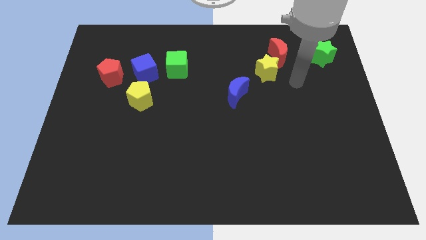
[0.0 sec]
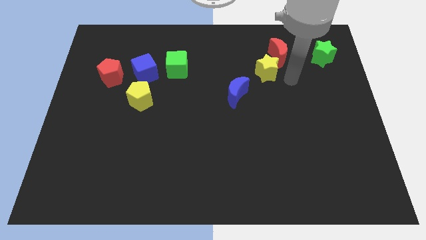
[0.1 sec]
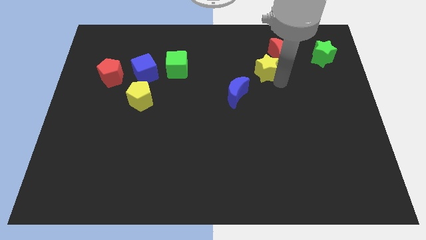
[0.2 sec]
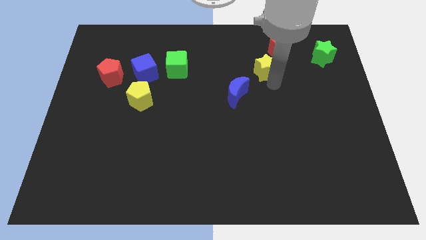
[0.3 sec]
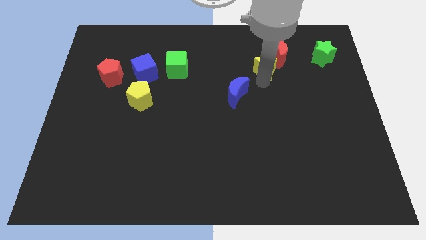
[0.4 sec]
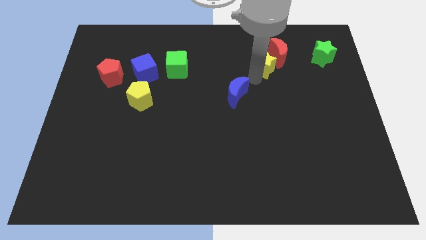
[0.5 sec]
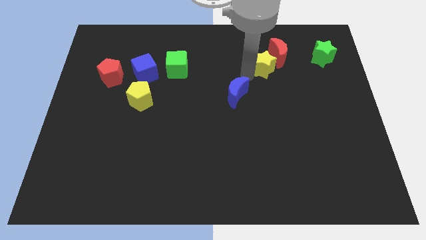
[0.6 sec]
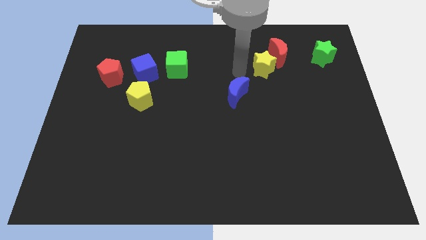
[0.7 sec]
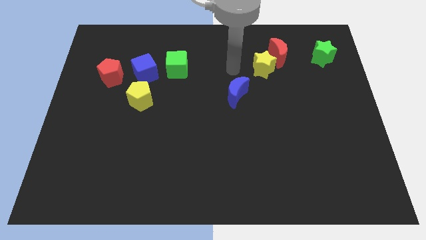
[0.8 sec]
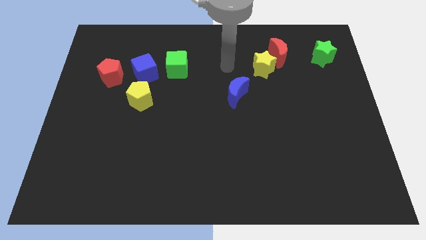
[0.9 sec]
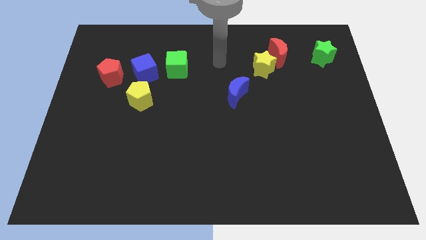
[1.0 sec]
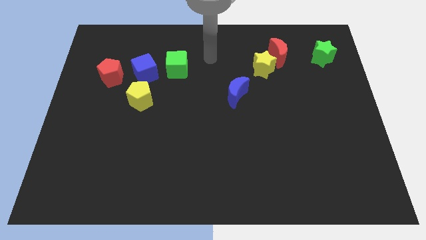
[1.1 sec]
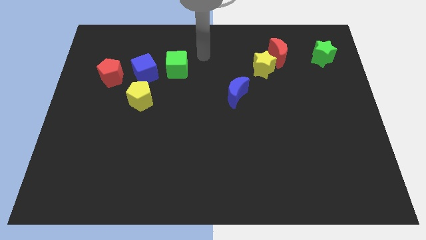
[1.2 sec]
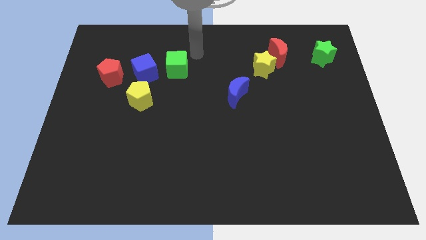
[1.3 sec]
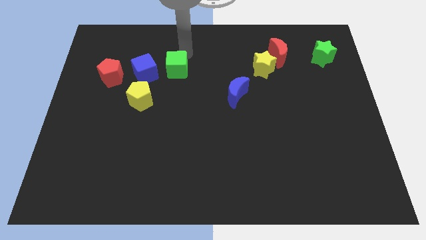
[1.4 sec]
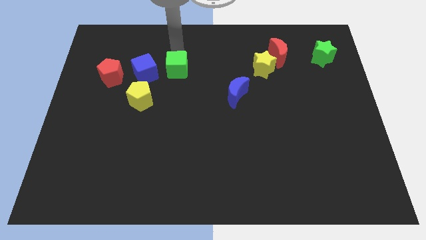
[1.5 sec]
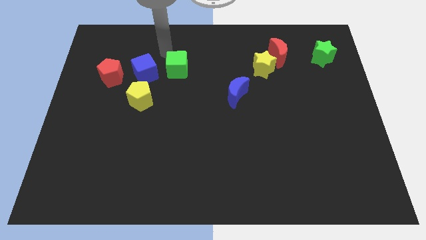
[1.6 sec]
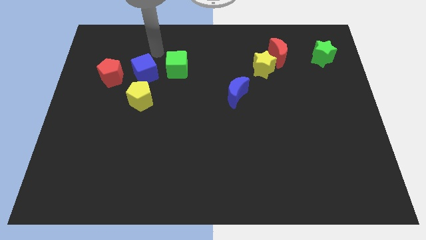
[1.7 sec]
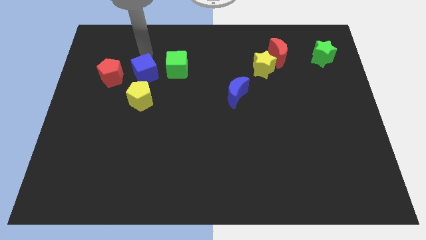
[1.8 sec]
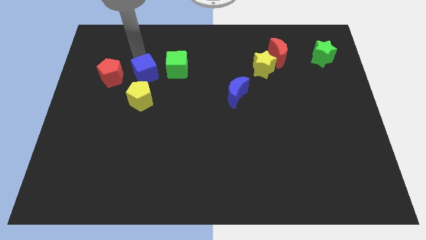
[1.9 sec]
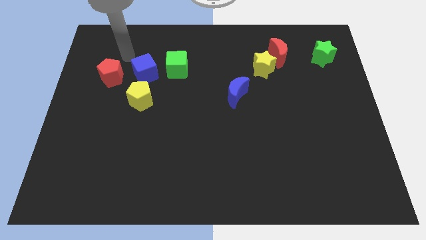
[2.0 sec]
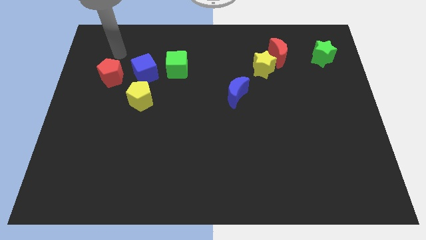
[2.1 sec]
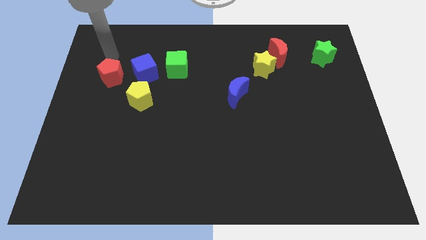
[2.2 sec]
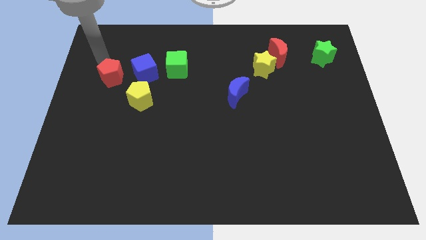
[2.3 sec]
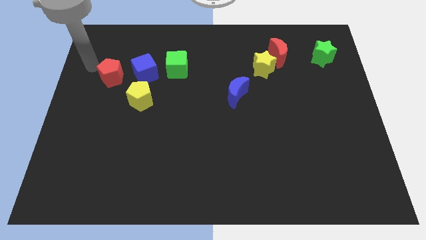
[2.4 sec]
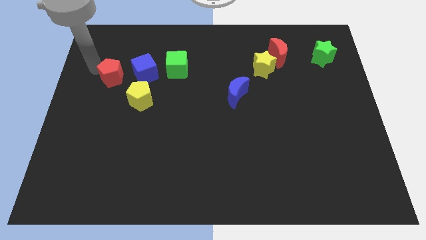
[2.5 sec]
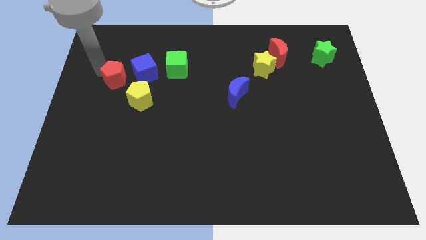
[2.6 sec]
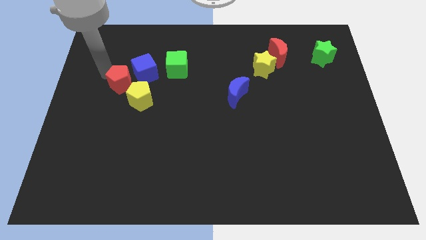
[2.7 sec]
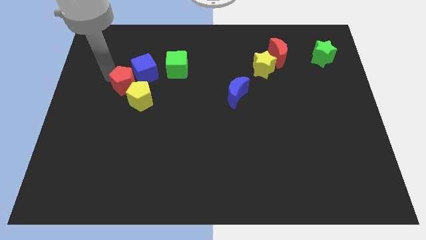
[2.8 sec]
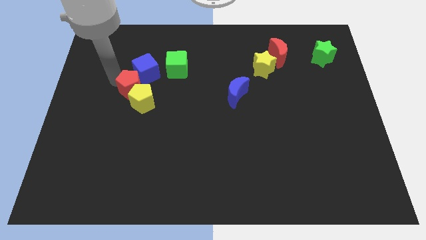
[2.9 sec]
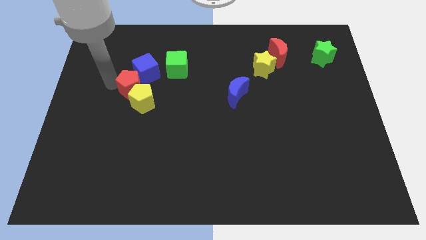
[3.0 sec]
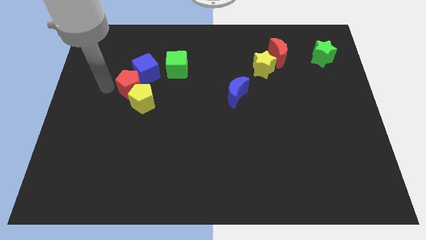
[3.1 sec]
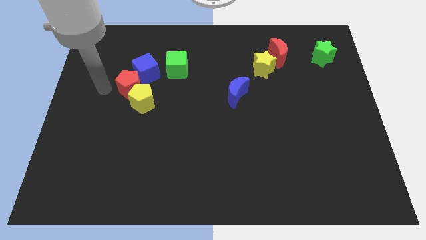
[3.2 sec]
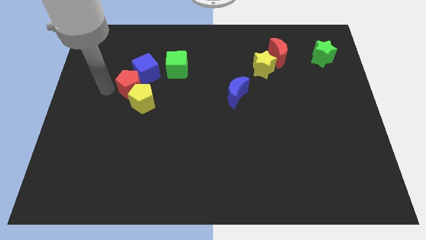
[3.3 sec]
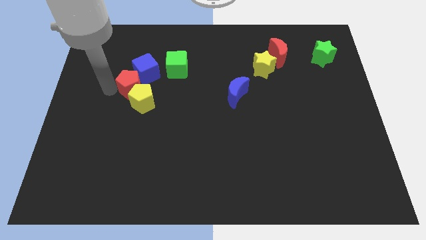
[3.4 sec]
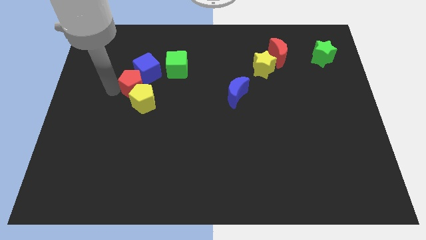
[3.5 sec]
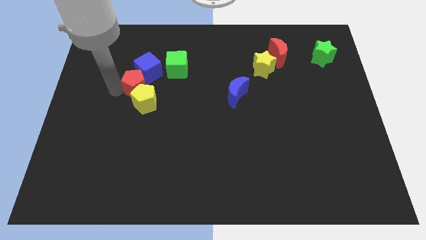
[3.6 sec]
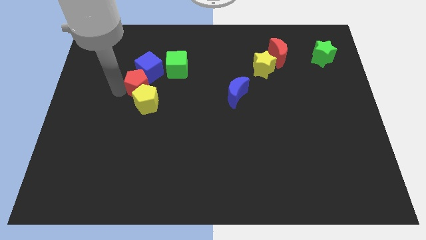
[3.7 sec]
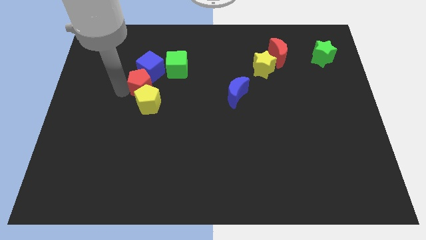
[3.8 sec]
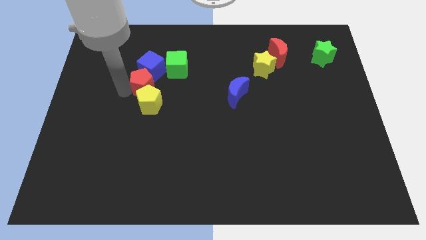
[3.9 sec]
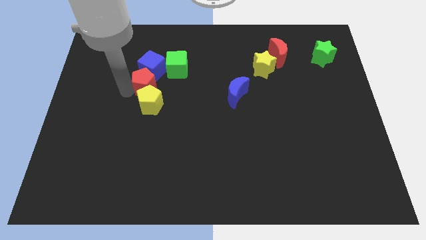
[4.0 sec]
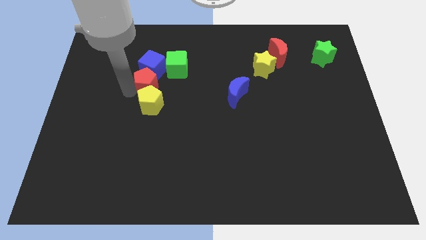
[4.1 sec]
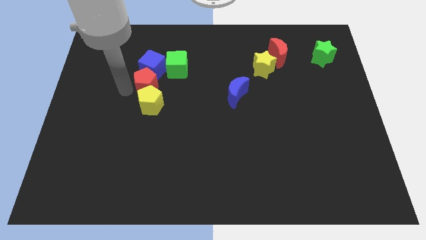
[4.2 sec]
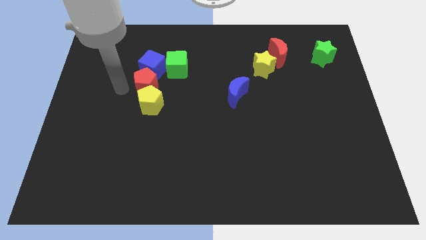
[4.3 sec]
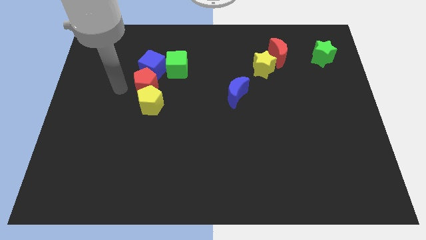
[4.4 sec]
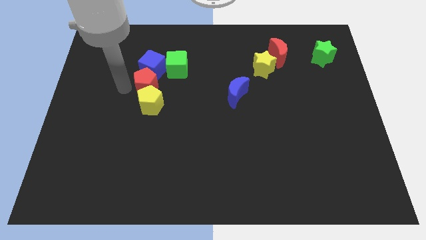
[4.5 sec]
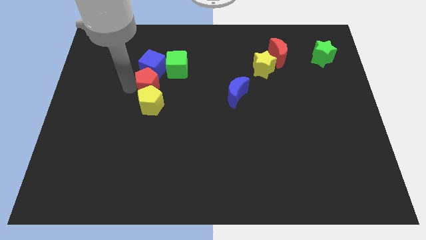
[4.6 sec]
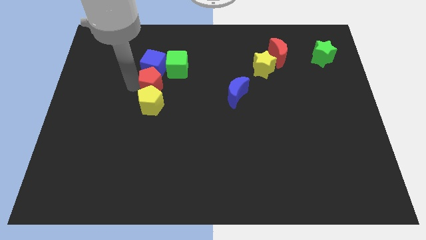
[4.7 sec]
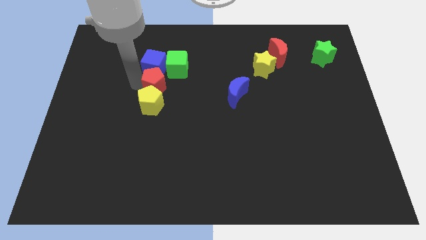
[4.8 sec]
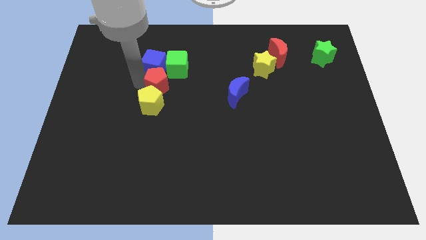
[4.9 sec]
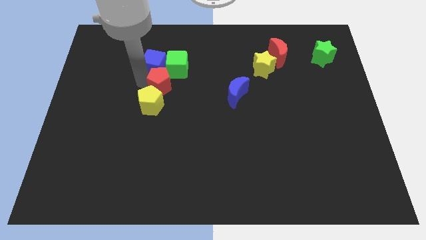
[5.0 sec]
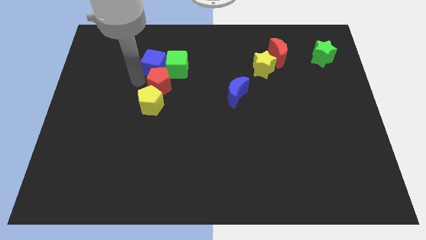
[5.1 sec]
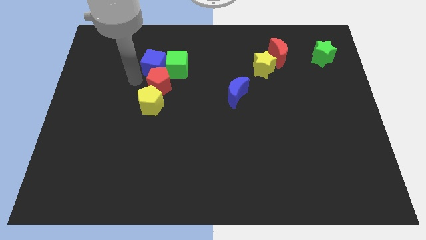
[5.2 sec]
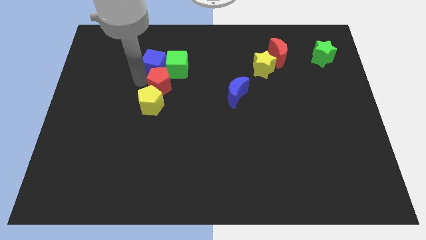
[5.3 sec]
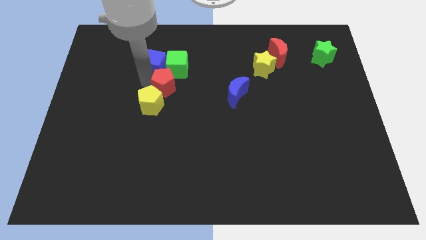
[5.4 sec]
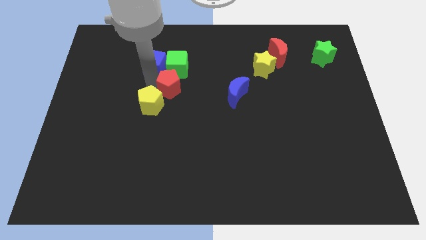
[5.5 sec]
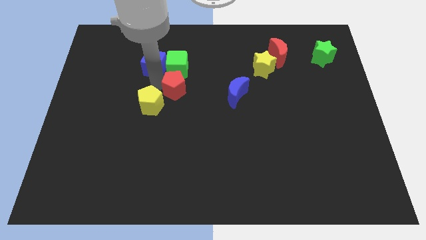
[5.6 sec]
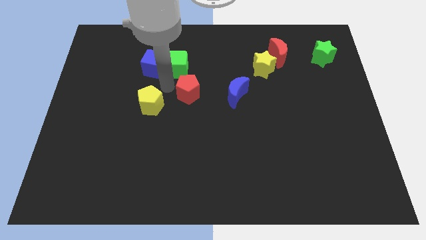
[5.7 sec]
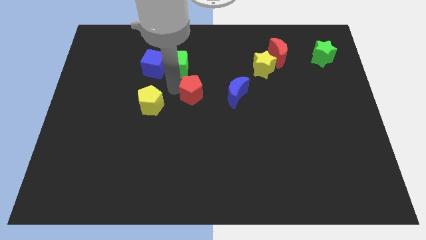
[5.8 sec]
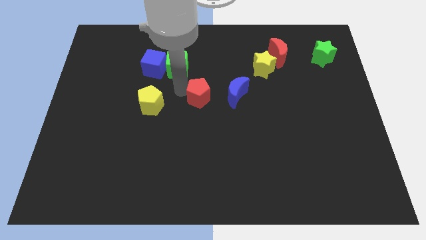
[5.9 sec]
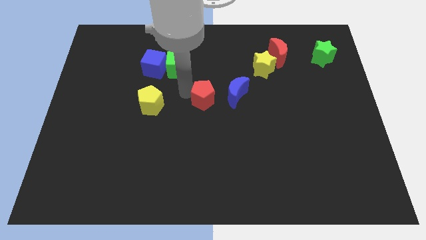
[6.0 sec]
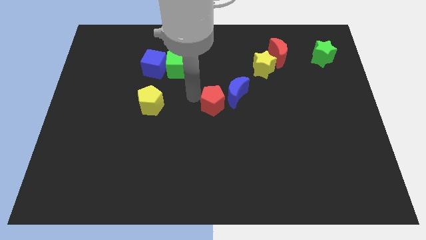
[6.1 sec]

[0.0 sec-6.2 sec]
slide the red pentagon towards the blue moon
